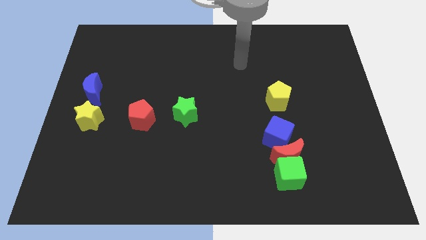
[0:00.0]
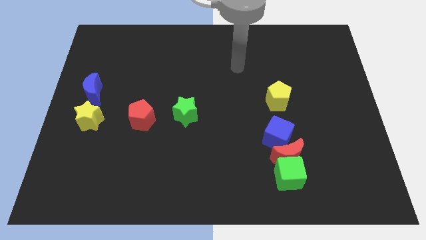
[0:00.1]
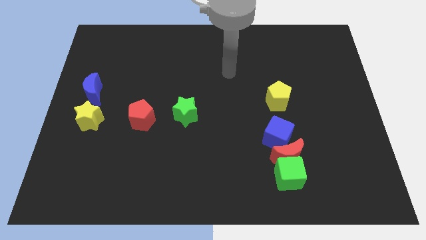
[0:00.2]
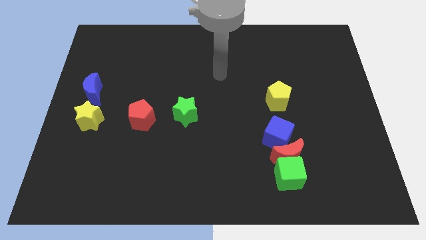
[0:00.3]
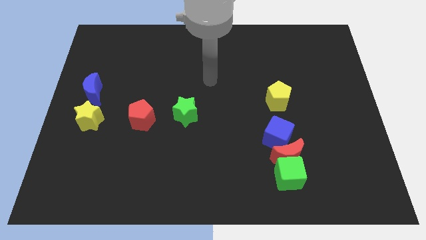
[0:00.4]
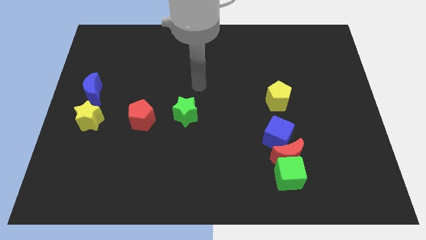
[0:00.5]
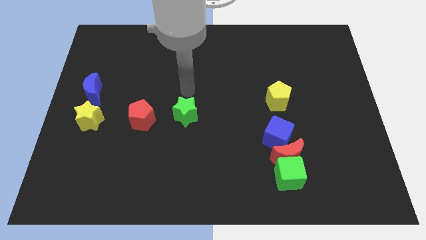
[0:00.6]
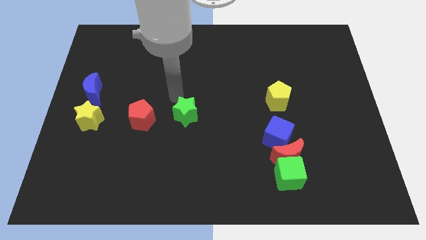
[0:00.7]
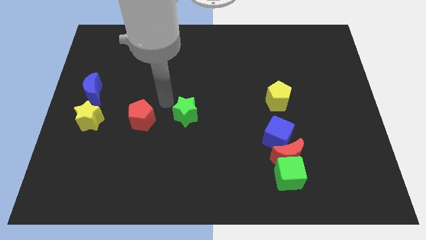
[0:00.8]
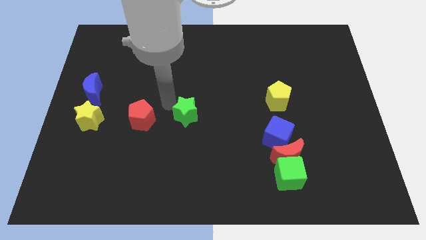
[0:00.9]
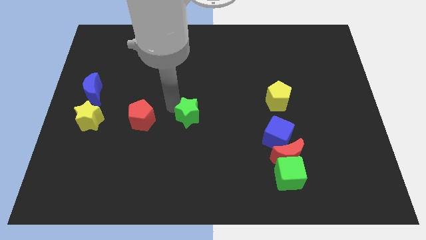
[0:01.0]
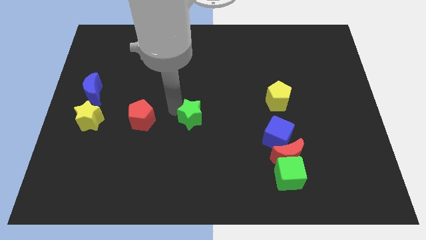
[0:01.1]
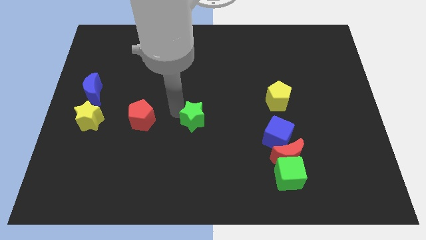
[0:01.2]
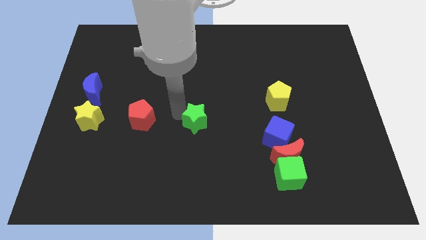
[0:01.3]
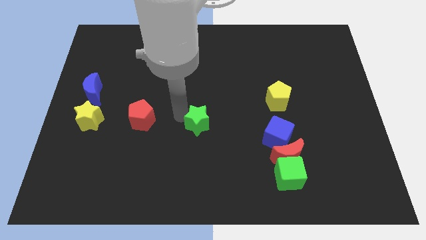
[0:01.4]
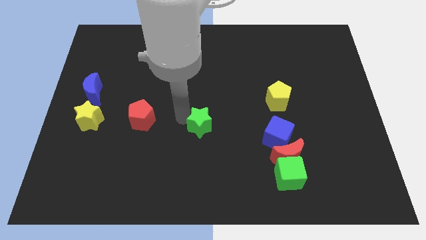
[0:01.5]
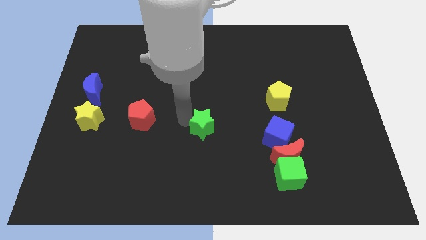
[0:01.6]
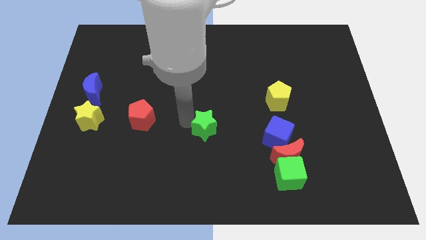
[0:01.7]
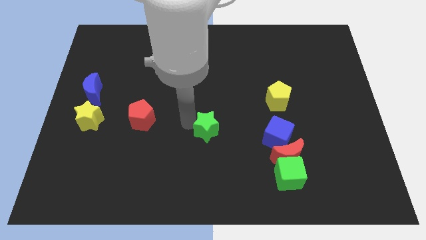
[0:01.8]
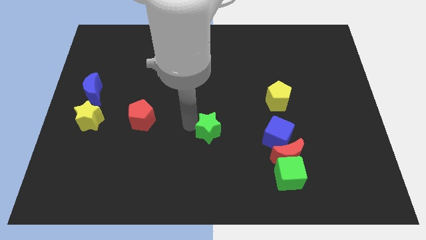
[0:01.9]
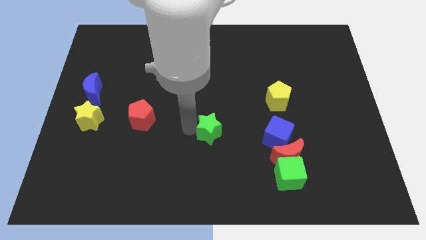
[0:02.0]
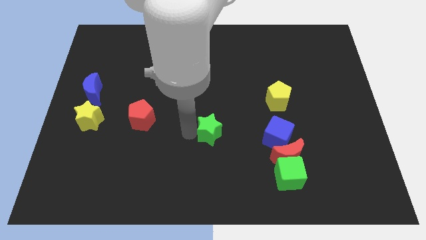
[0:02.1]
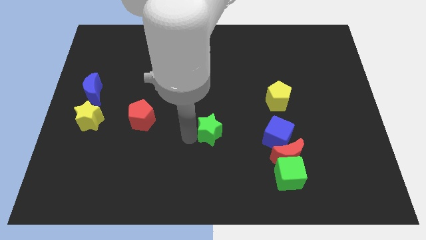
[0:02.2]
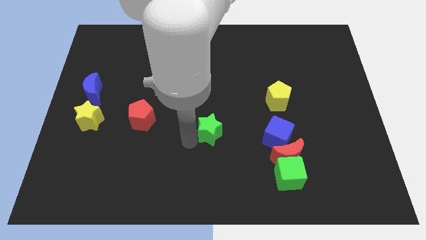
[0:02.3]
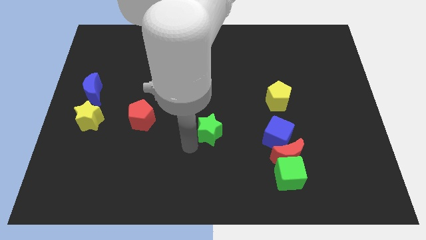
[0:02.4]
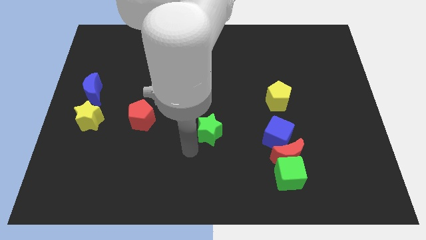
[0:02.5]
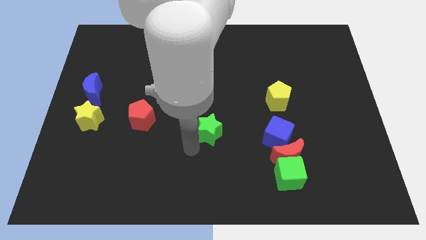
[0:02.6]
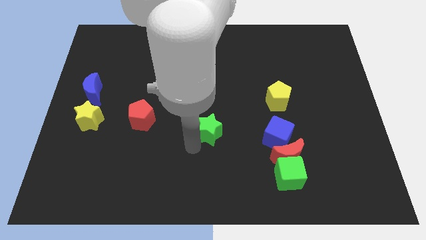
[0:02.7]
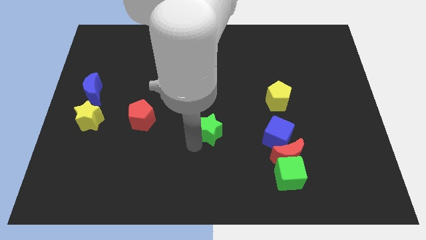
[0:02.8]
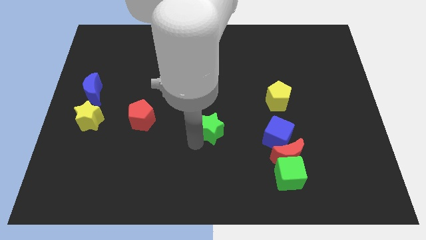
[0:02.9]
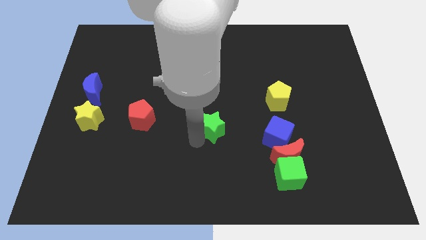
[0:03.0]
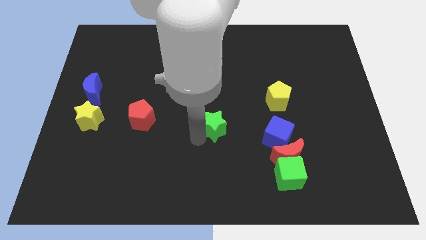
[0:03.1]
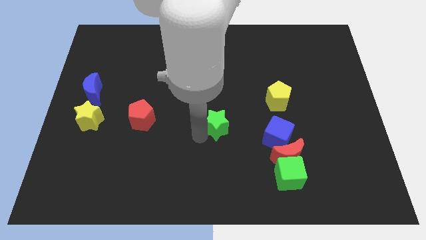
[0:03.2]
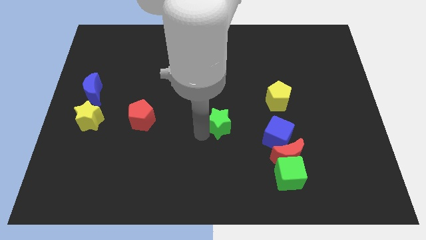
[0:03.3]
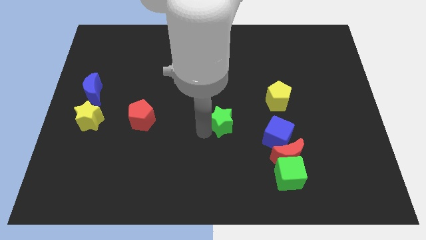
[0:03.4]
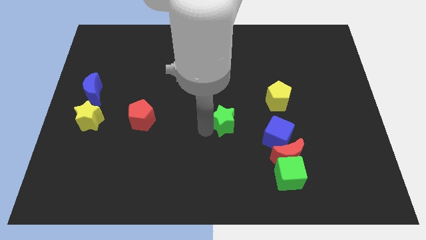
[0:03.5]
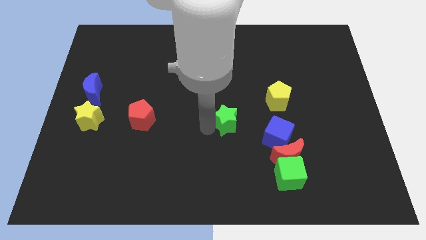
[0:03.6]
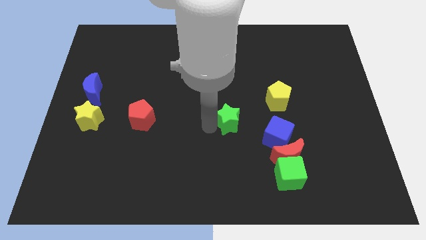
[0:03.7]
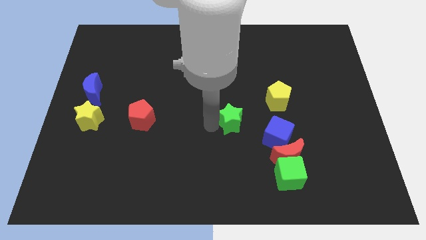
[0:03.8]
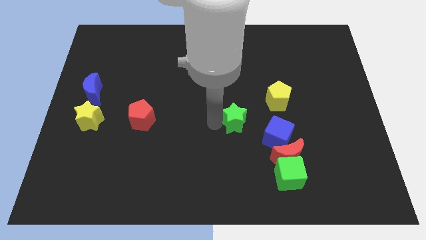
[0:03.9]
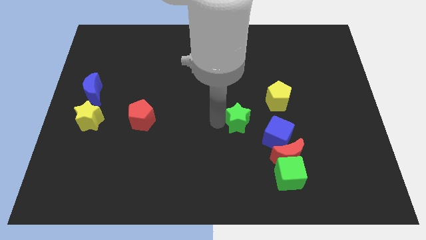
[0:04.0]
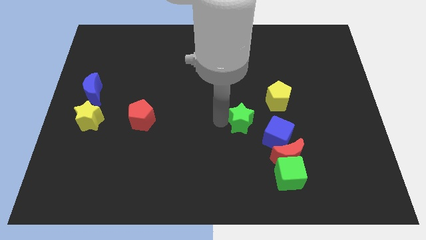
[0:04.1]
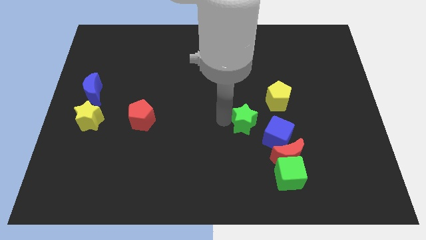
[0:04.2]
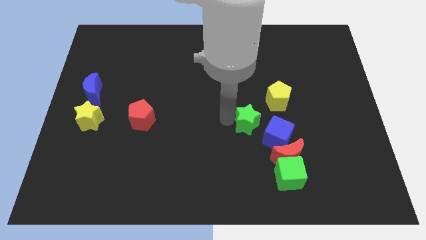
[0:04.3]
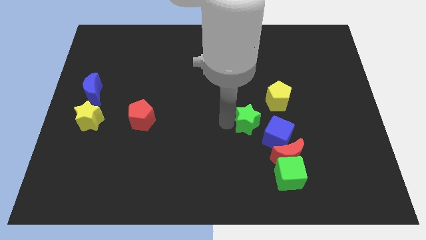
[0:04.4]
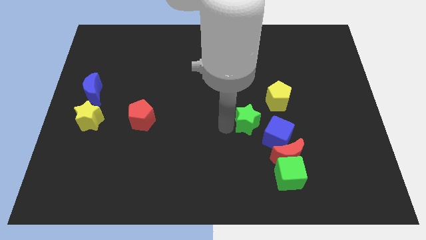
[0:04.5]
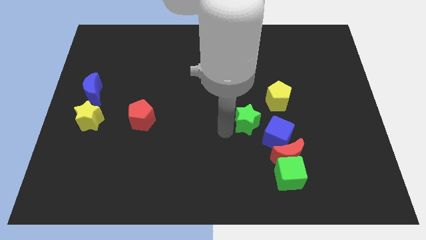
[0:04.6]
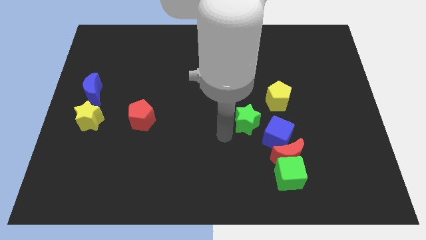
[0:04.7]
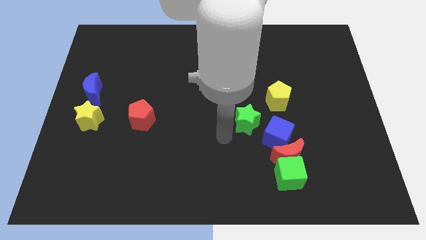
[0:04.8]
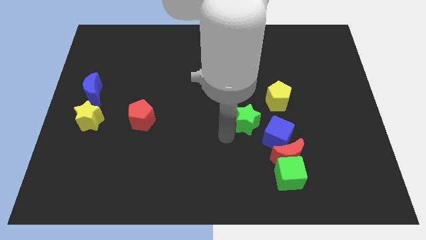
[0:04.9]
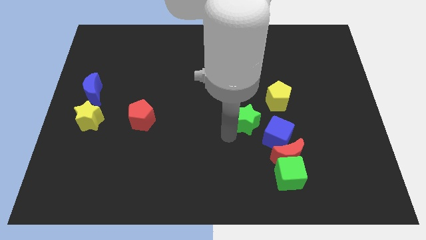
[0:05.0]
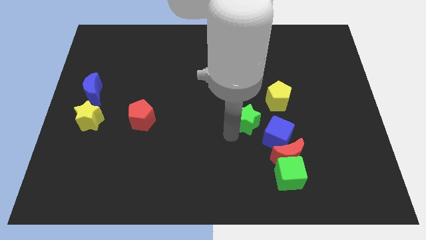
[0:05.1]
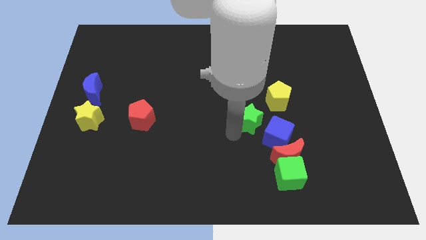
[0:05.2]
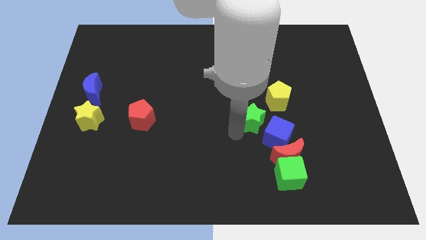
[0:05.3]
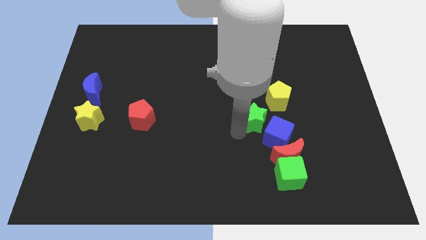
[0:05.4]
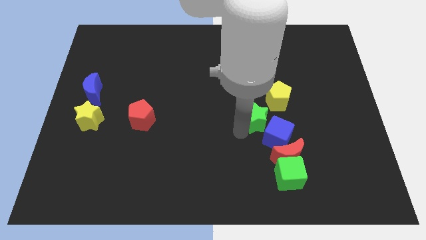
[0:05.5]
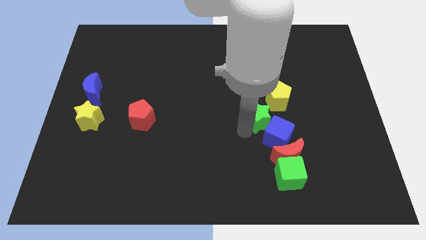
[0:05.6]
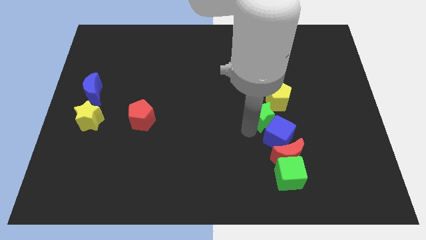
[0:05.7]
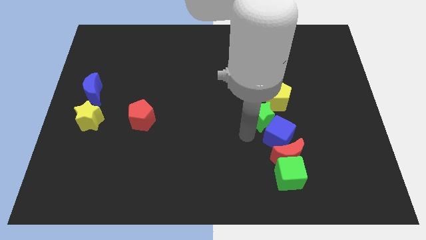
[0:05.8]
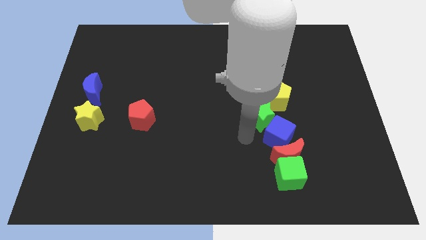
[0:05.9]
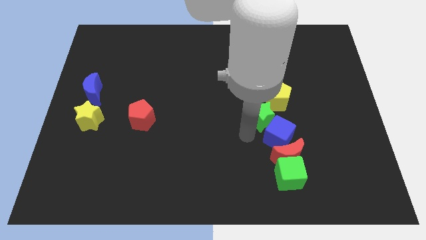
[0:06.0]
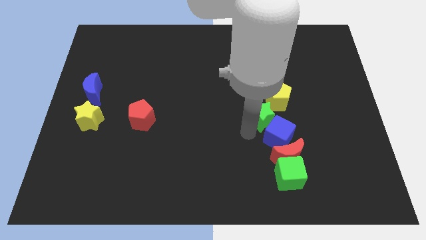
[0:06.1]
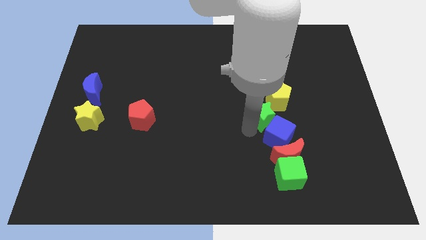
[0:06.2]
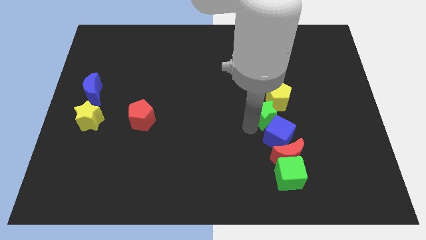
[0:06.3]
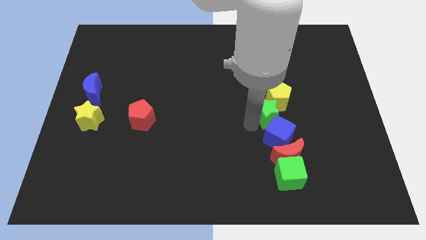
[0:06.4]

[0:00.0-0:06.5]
move the green star towards the yellow pentagon
